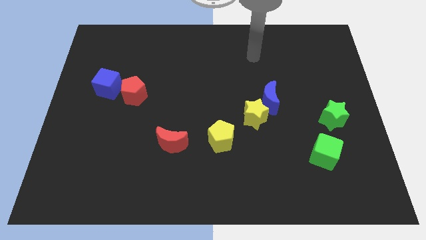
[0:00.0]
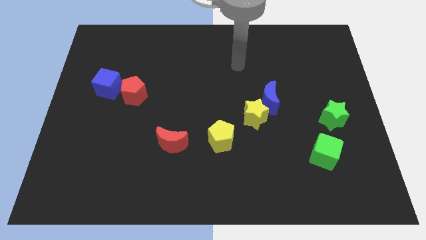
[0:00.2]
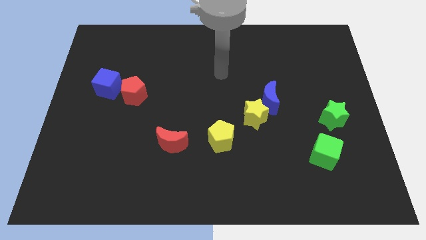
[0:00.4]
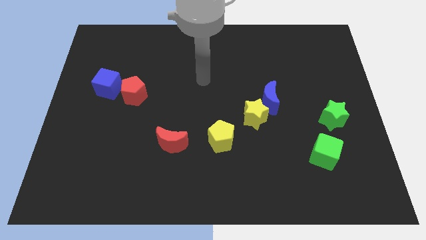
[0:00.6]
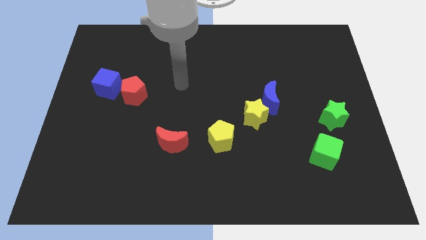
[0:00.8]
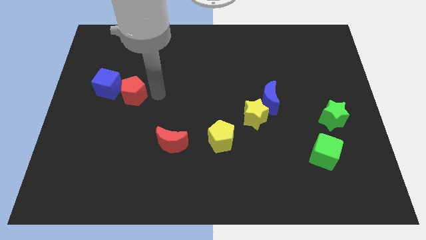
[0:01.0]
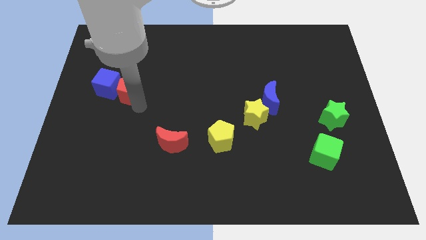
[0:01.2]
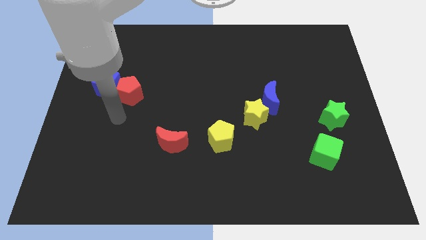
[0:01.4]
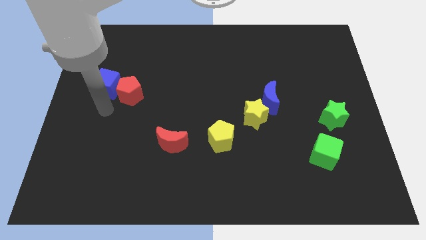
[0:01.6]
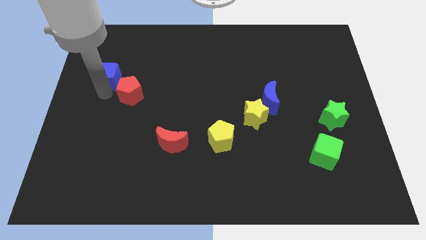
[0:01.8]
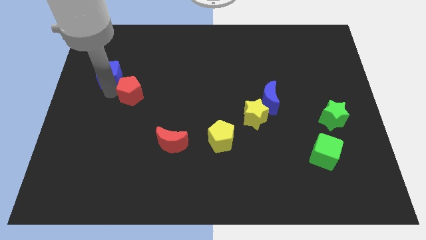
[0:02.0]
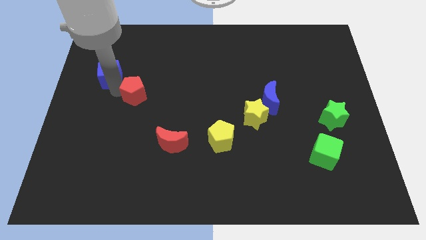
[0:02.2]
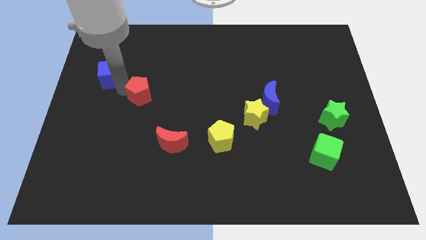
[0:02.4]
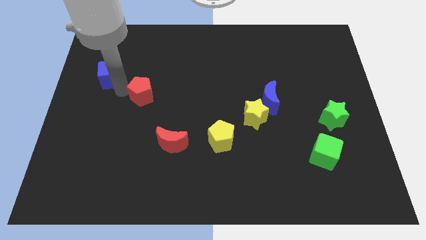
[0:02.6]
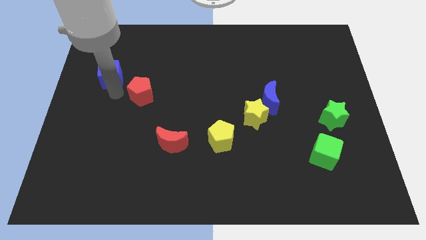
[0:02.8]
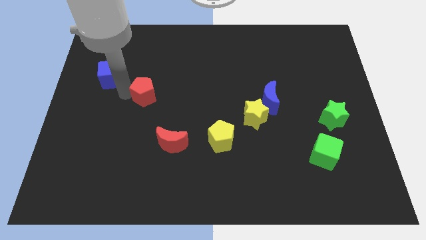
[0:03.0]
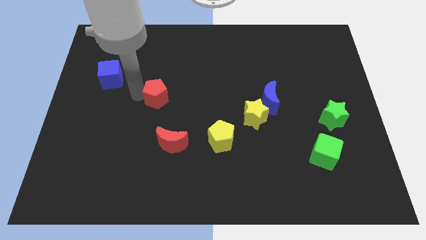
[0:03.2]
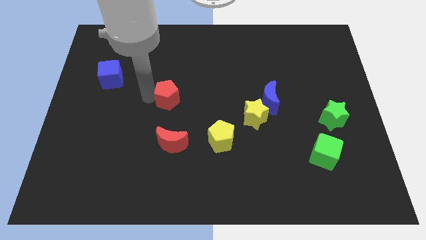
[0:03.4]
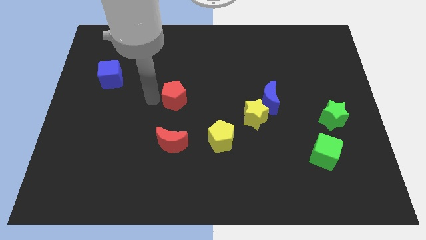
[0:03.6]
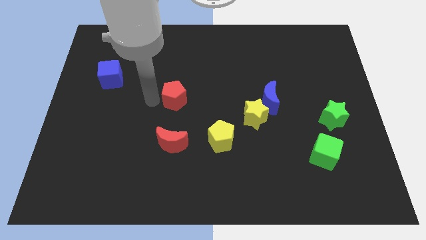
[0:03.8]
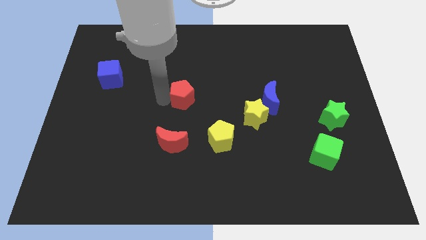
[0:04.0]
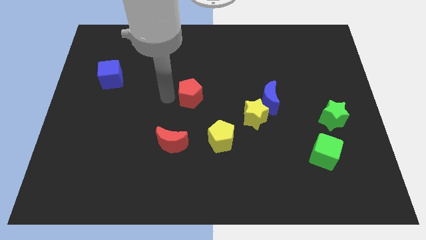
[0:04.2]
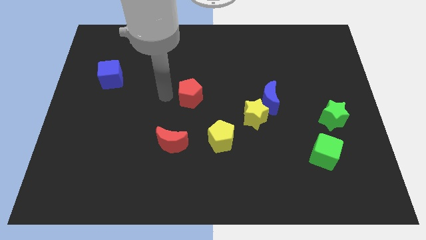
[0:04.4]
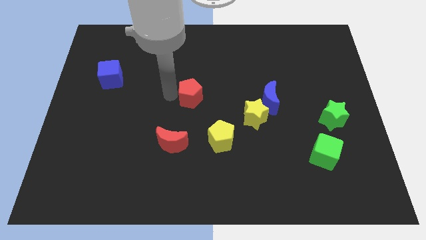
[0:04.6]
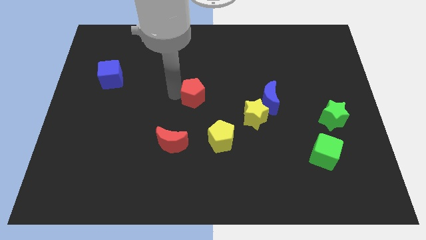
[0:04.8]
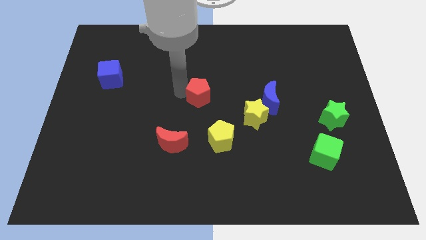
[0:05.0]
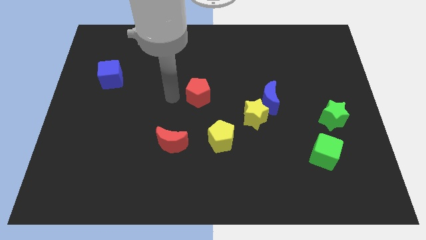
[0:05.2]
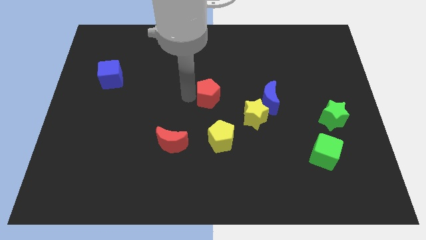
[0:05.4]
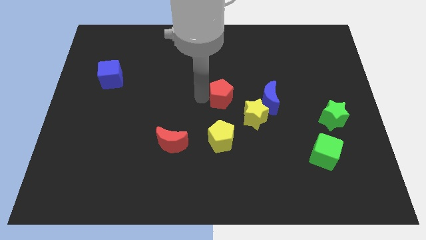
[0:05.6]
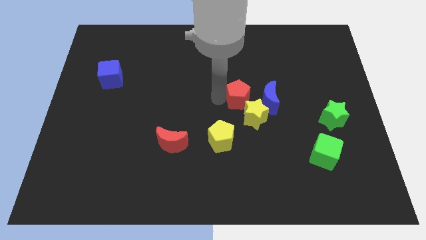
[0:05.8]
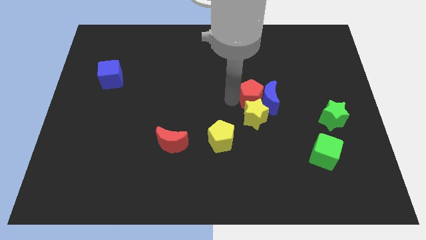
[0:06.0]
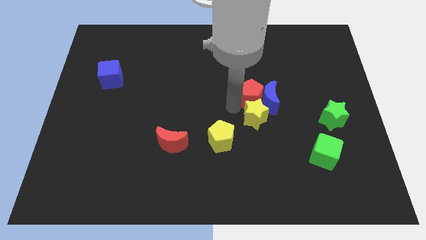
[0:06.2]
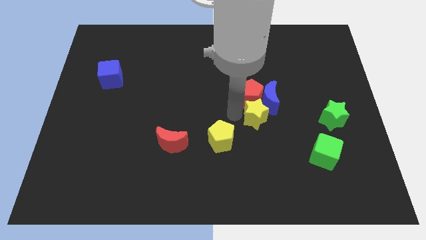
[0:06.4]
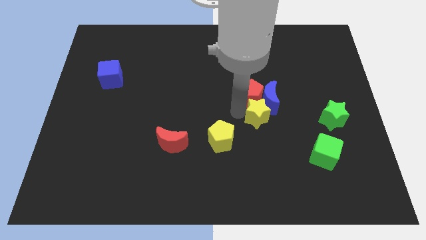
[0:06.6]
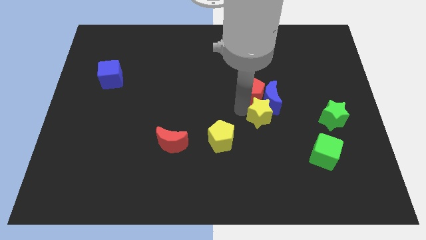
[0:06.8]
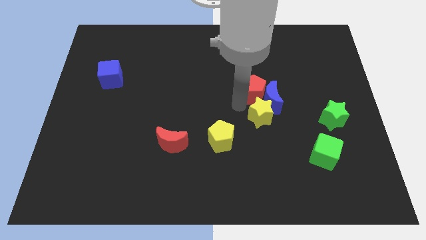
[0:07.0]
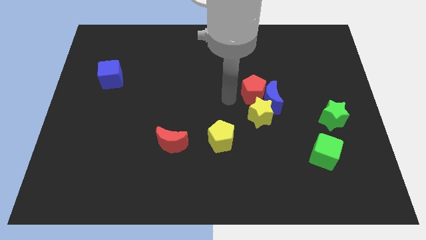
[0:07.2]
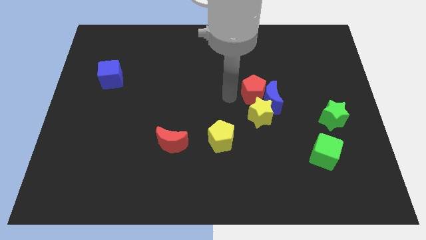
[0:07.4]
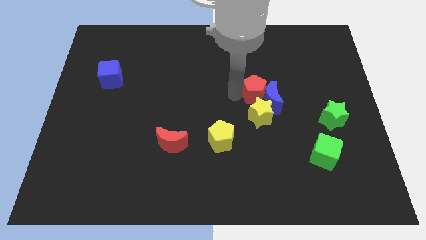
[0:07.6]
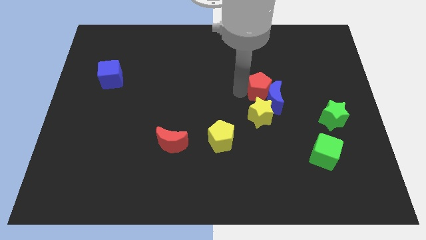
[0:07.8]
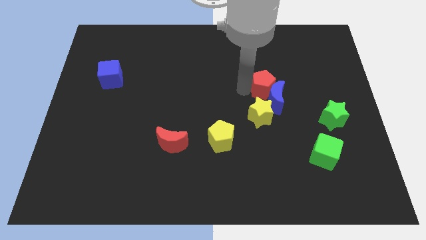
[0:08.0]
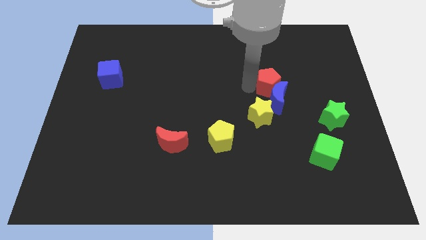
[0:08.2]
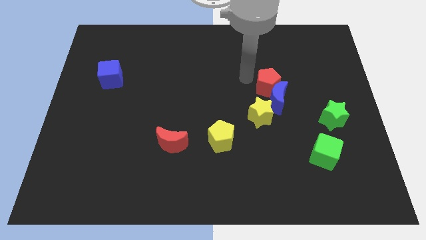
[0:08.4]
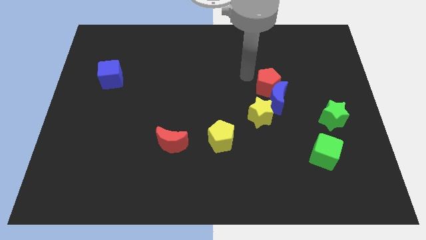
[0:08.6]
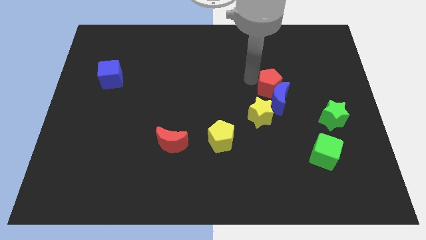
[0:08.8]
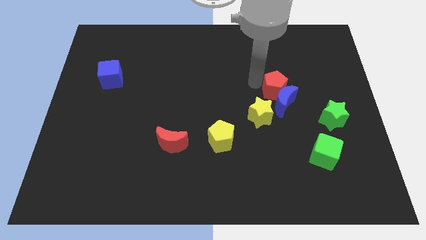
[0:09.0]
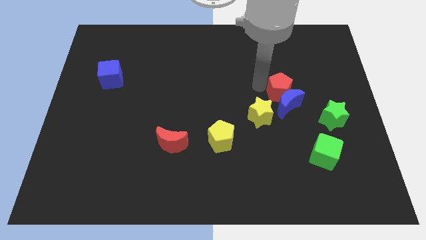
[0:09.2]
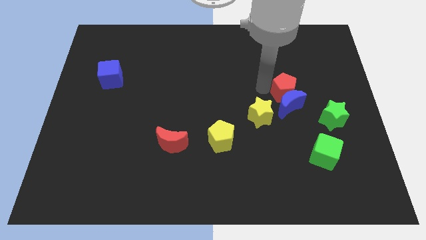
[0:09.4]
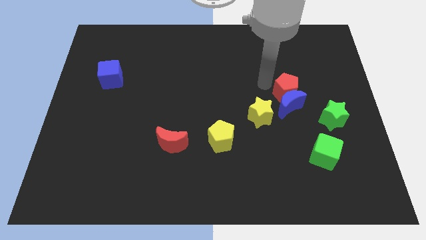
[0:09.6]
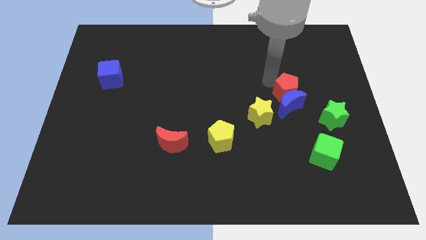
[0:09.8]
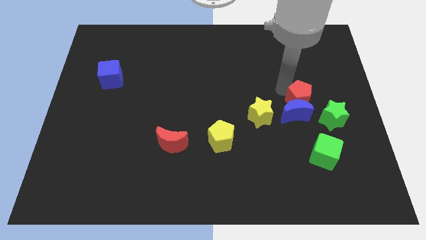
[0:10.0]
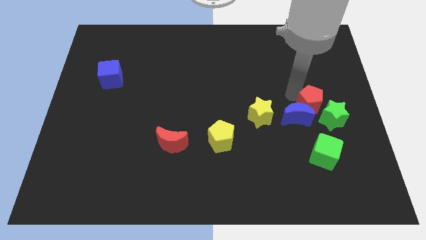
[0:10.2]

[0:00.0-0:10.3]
put the red pentagon to the green star

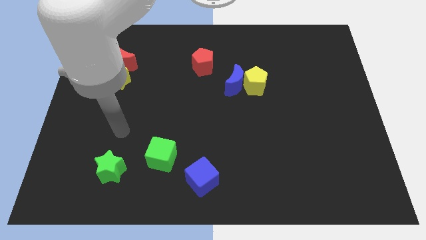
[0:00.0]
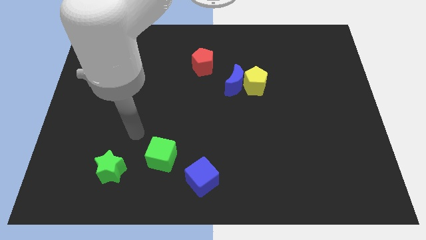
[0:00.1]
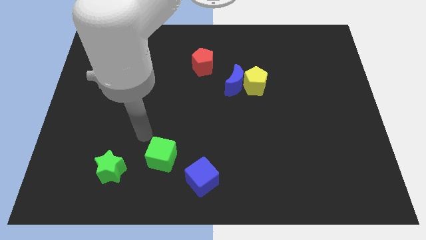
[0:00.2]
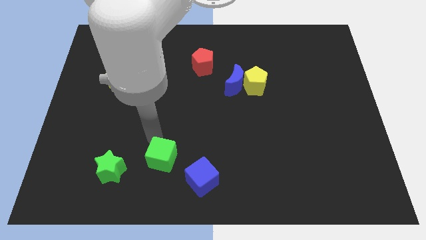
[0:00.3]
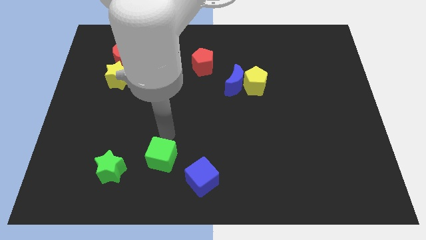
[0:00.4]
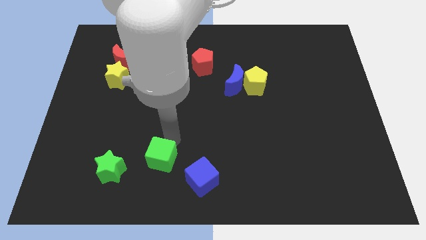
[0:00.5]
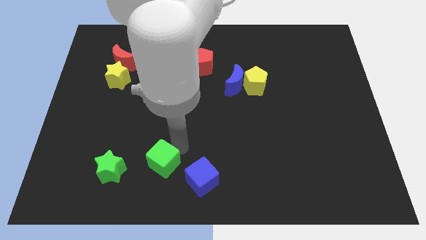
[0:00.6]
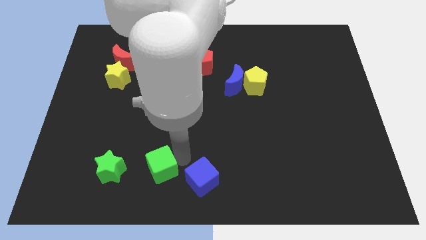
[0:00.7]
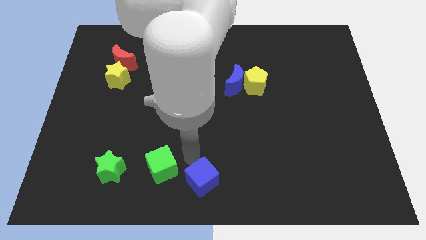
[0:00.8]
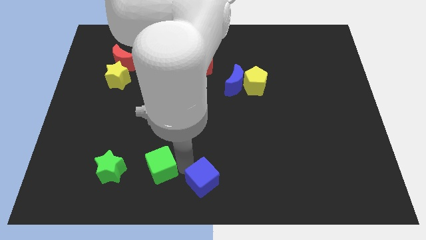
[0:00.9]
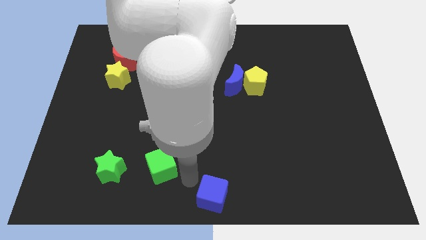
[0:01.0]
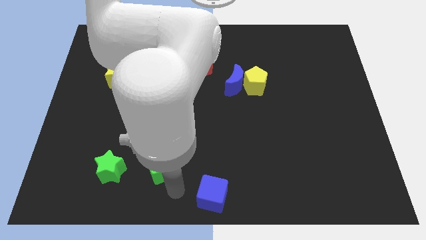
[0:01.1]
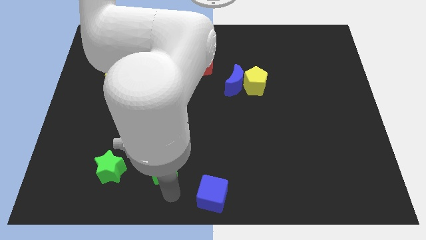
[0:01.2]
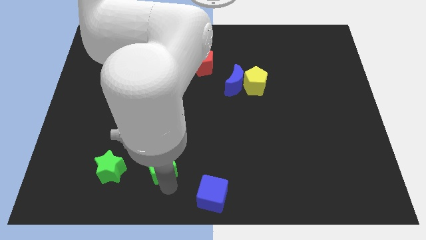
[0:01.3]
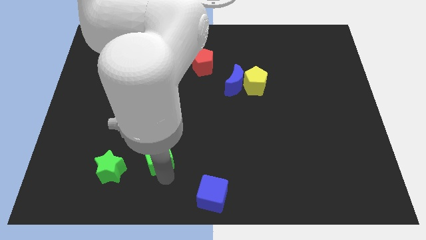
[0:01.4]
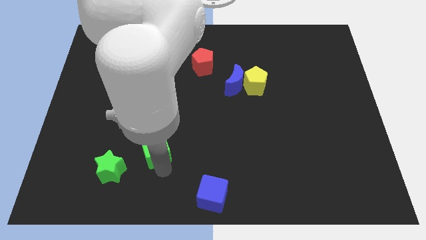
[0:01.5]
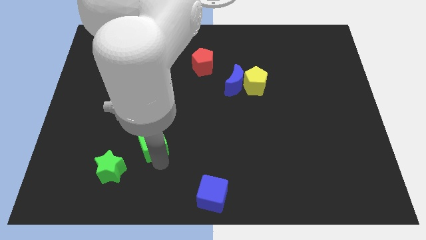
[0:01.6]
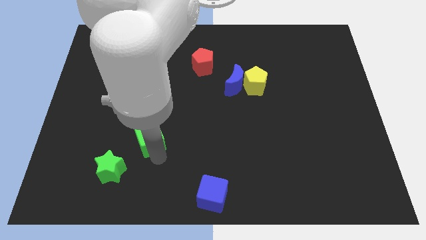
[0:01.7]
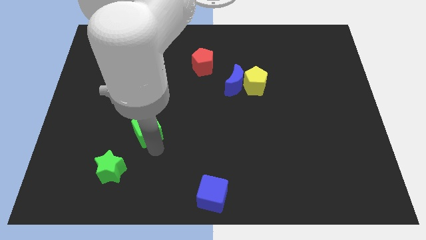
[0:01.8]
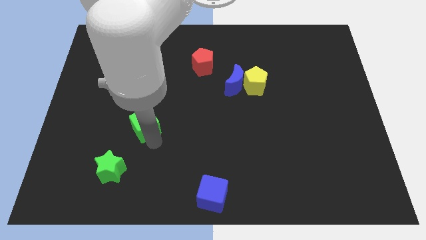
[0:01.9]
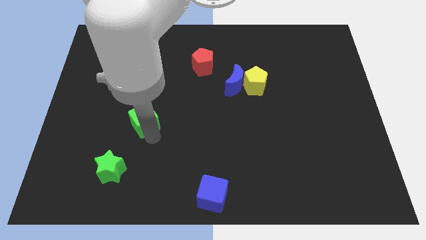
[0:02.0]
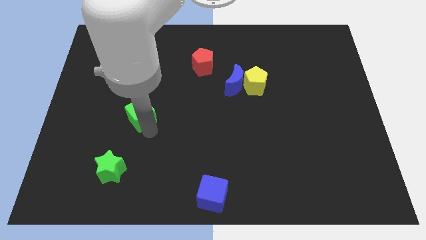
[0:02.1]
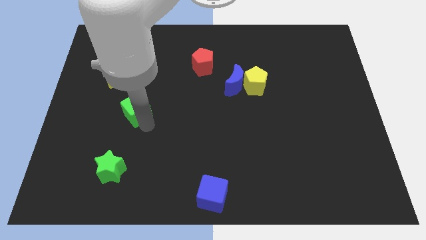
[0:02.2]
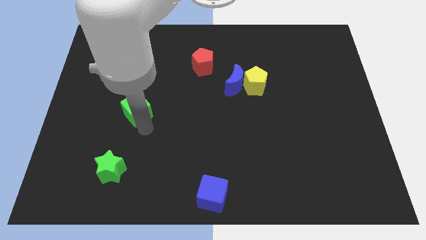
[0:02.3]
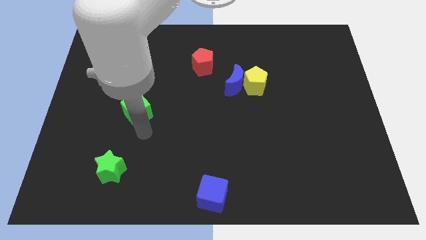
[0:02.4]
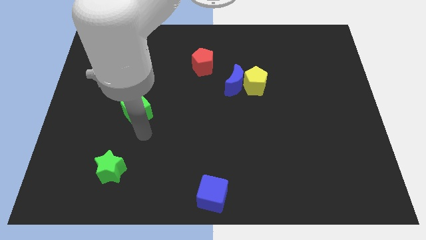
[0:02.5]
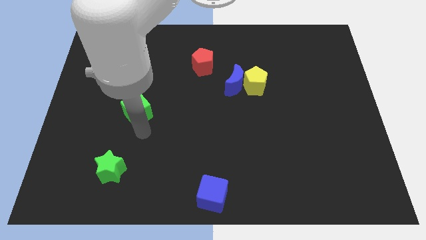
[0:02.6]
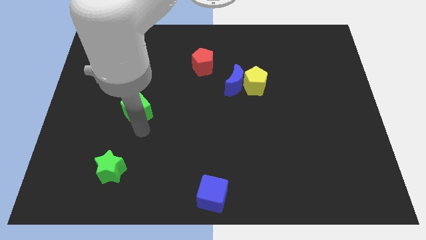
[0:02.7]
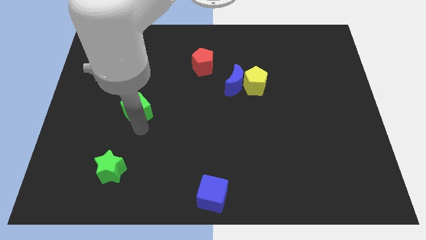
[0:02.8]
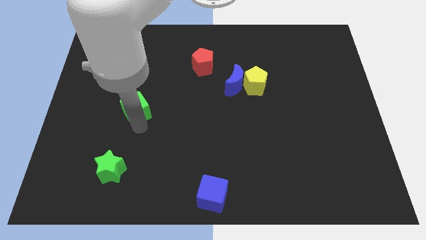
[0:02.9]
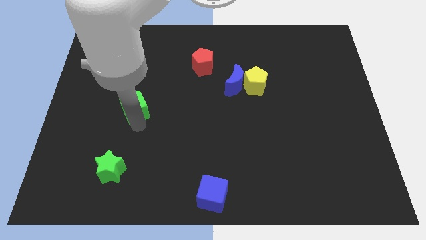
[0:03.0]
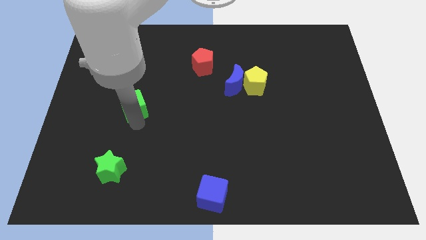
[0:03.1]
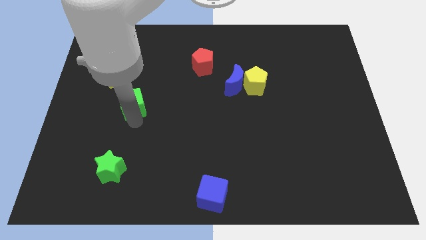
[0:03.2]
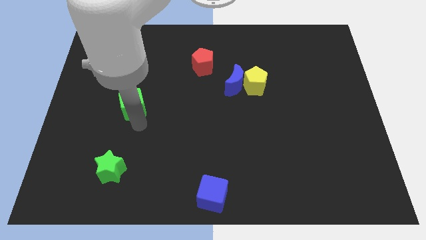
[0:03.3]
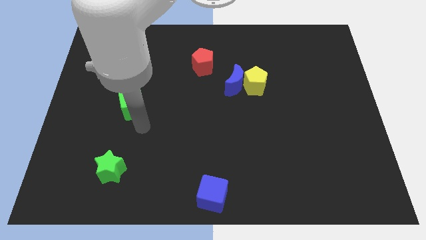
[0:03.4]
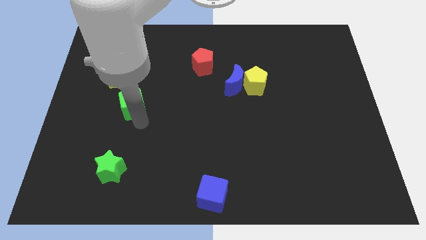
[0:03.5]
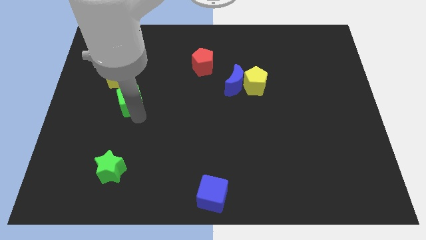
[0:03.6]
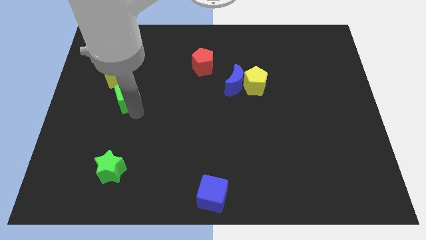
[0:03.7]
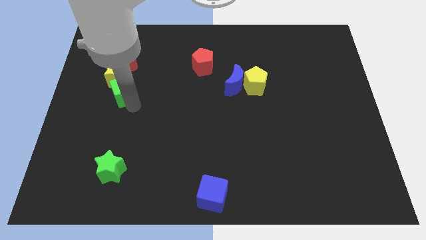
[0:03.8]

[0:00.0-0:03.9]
slide the green cube to the yellow star
